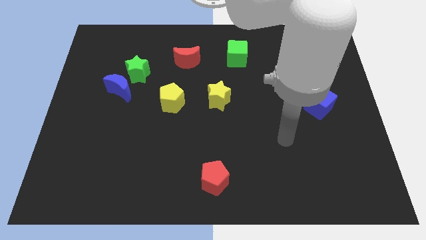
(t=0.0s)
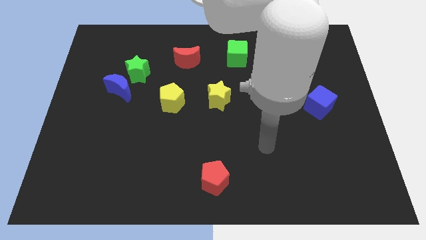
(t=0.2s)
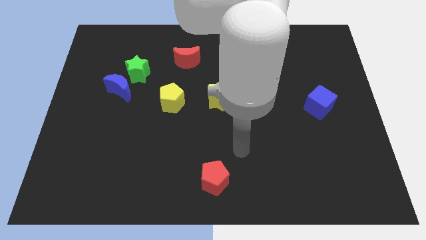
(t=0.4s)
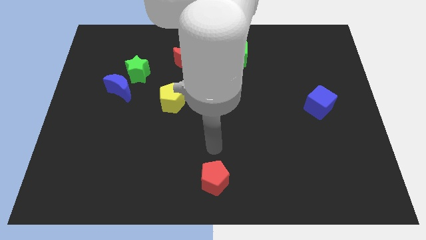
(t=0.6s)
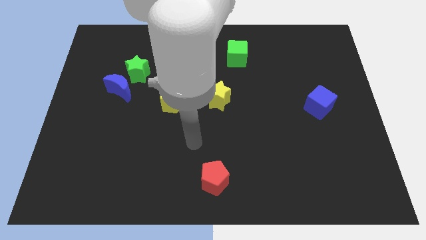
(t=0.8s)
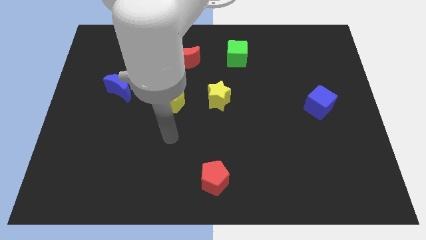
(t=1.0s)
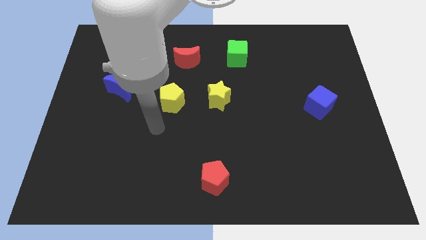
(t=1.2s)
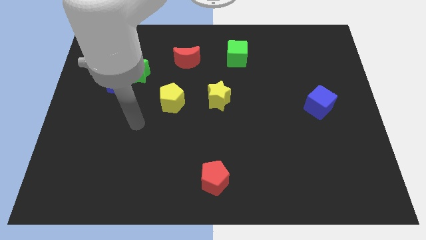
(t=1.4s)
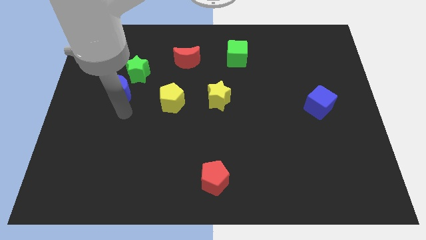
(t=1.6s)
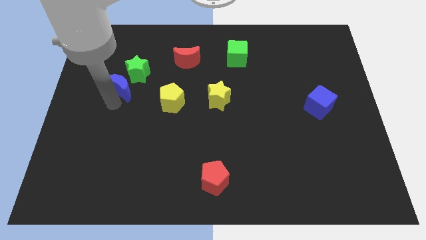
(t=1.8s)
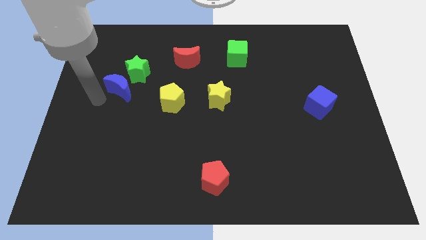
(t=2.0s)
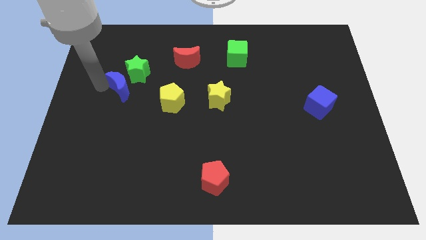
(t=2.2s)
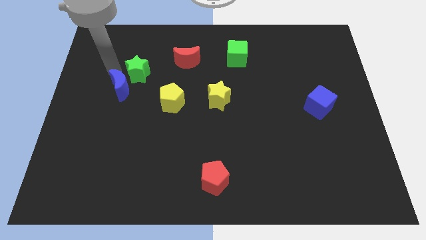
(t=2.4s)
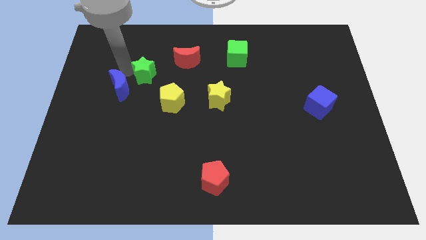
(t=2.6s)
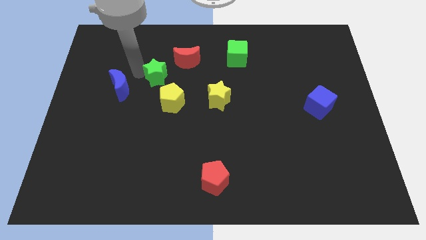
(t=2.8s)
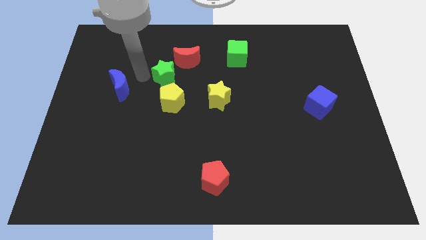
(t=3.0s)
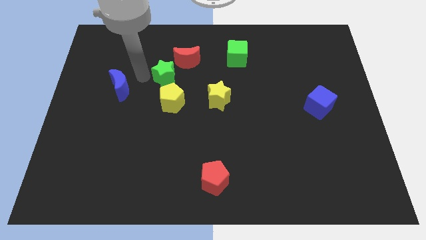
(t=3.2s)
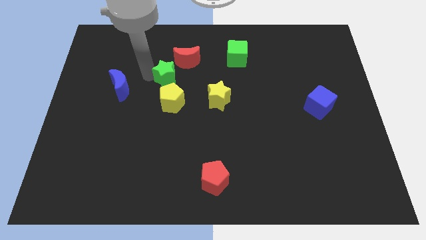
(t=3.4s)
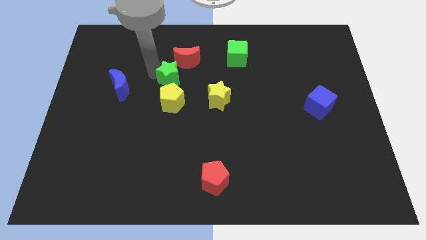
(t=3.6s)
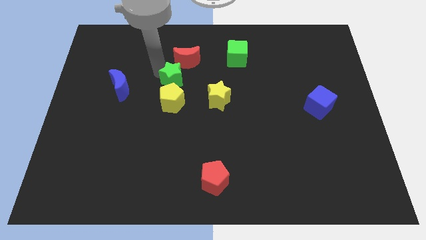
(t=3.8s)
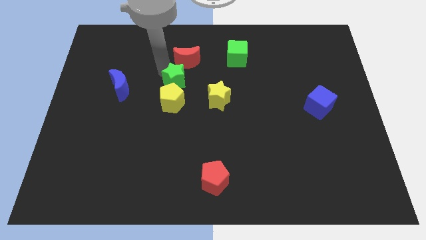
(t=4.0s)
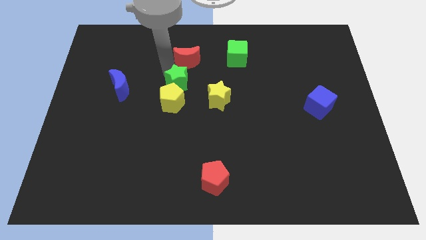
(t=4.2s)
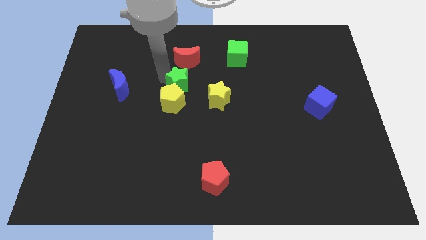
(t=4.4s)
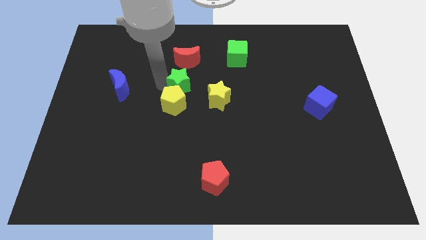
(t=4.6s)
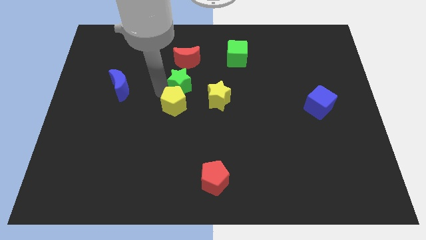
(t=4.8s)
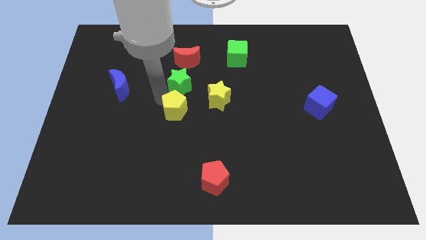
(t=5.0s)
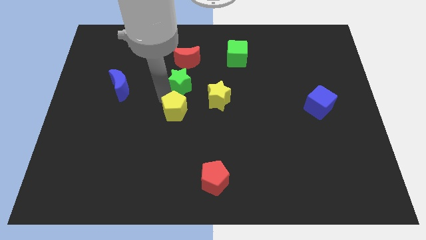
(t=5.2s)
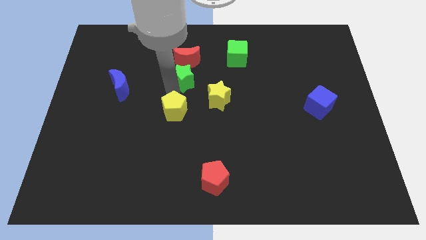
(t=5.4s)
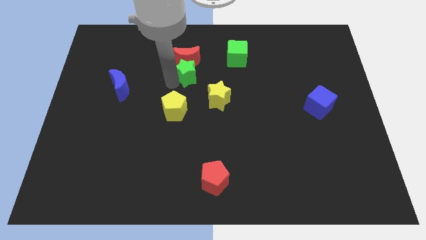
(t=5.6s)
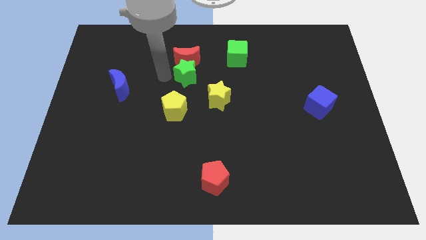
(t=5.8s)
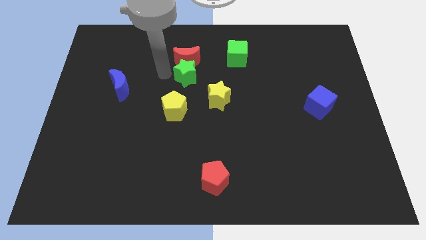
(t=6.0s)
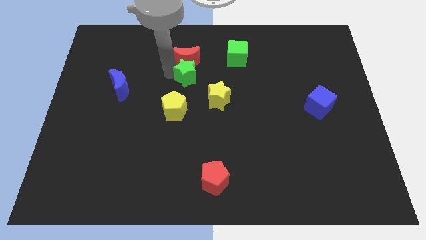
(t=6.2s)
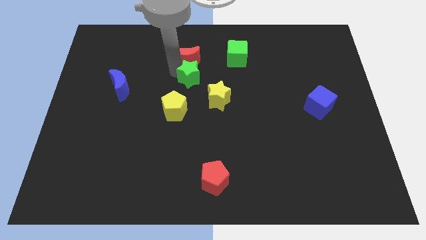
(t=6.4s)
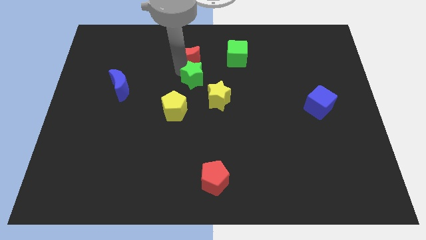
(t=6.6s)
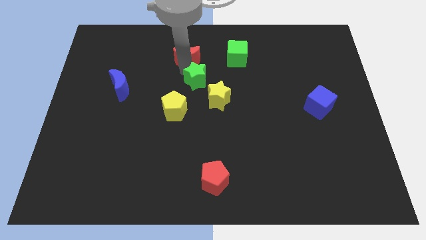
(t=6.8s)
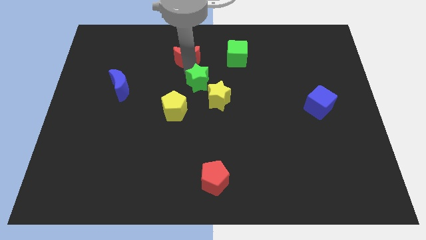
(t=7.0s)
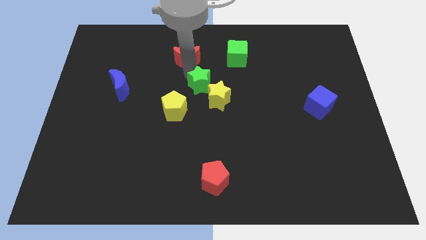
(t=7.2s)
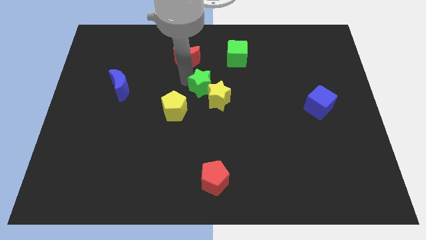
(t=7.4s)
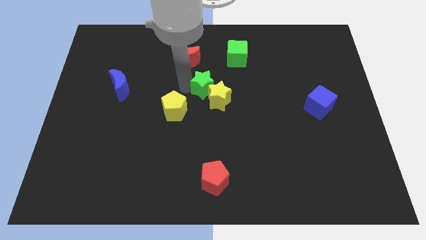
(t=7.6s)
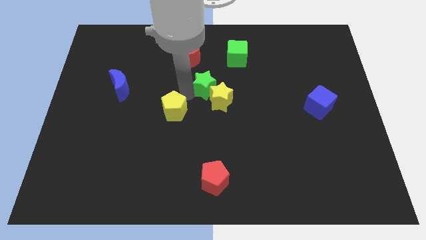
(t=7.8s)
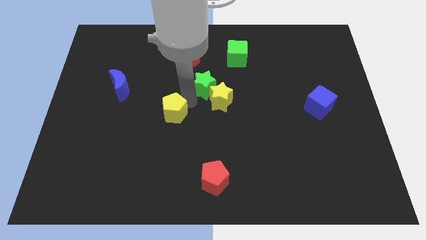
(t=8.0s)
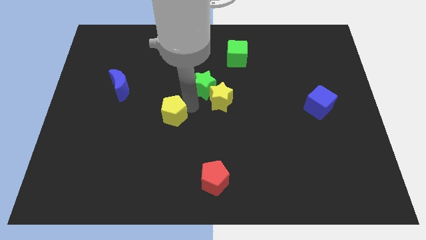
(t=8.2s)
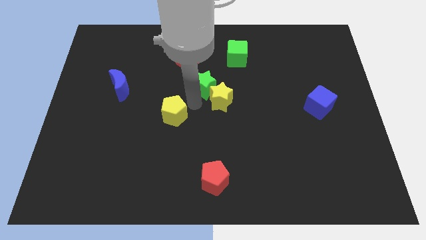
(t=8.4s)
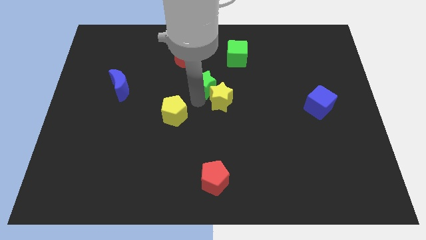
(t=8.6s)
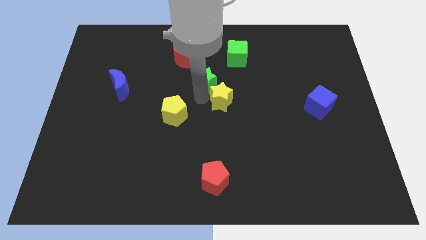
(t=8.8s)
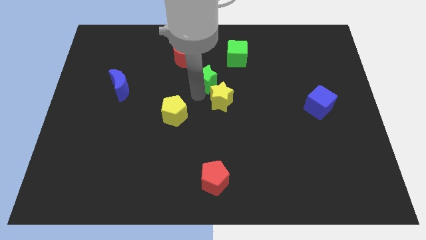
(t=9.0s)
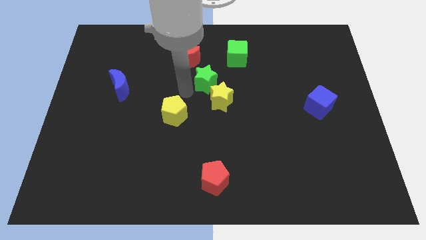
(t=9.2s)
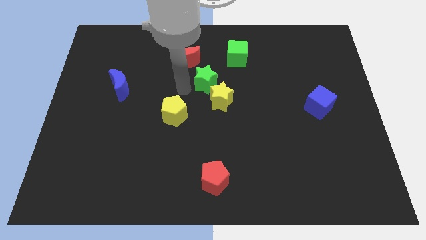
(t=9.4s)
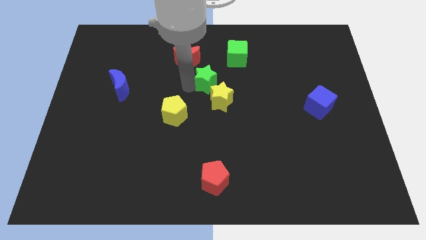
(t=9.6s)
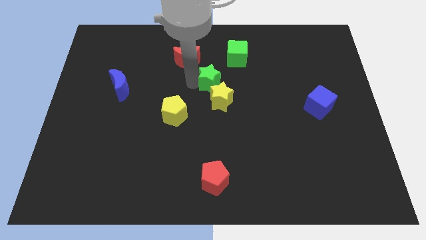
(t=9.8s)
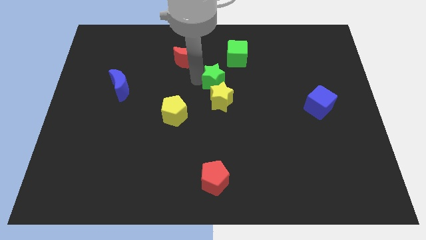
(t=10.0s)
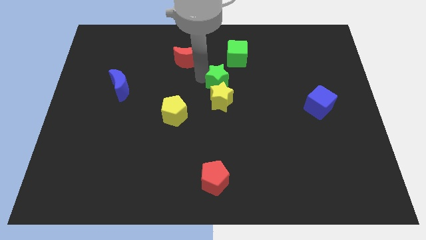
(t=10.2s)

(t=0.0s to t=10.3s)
slide the green star right

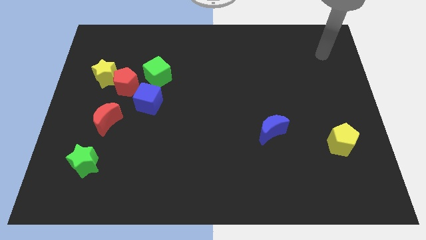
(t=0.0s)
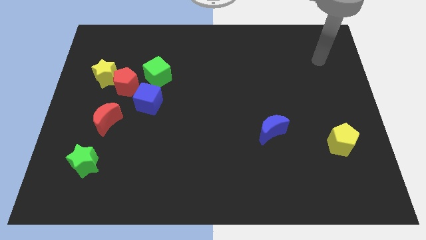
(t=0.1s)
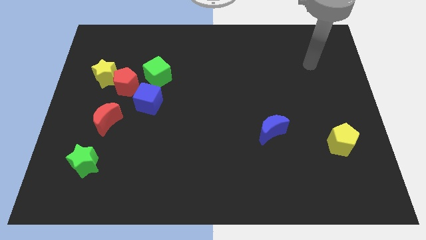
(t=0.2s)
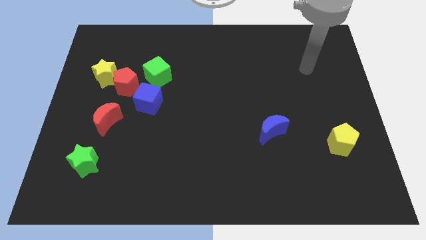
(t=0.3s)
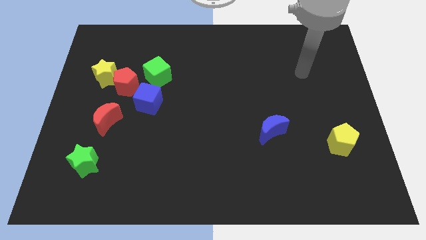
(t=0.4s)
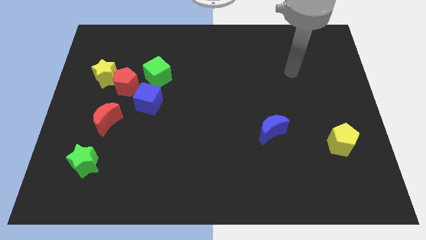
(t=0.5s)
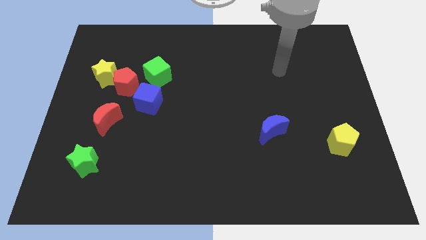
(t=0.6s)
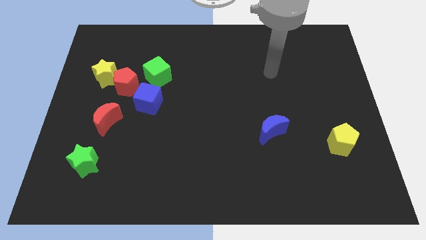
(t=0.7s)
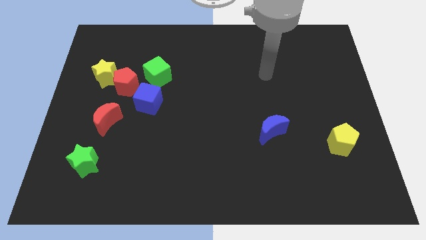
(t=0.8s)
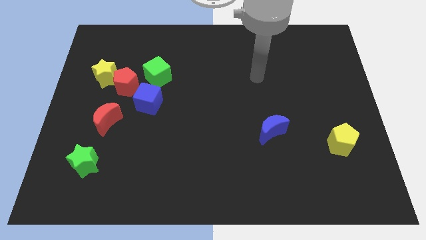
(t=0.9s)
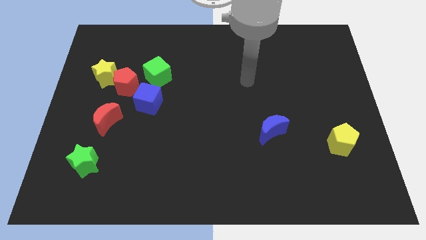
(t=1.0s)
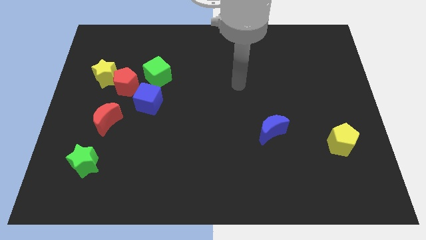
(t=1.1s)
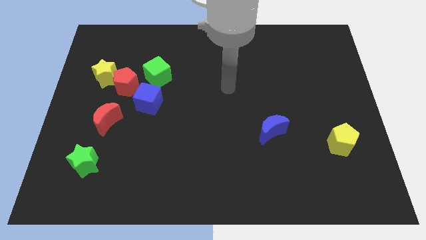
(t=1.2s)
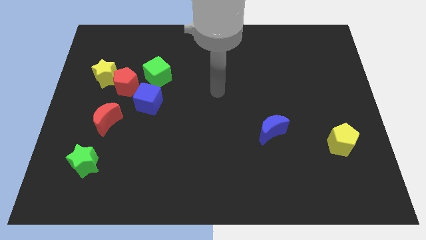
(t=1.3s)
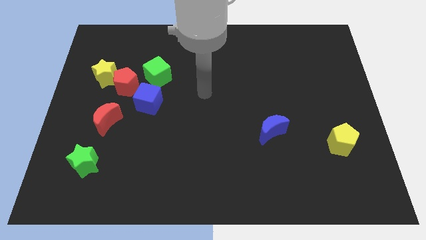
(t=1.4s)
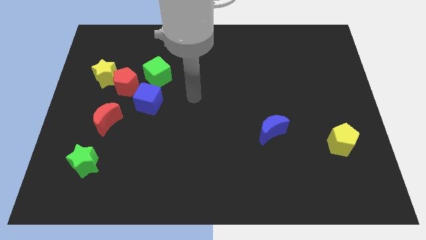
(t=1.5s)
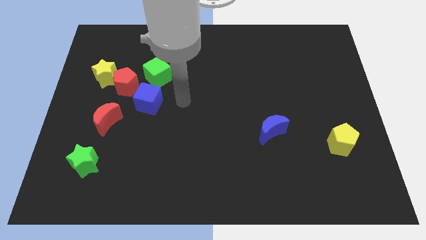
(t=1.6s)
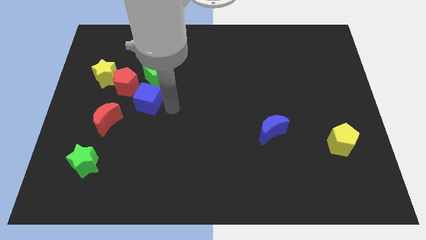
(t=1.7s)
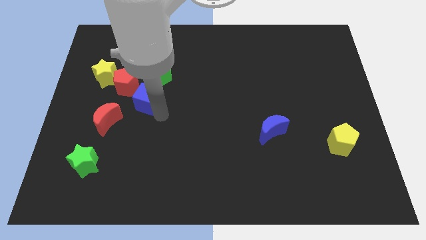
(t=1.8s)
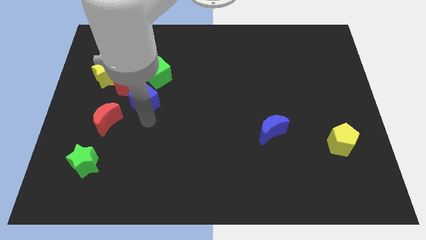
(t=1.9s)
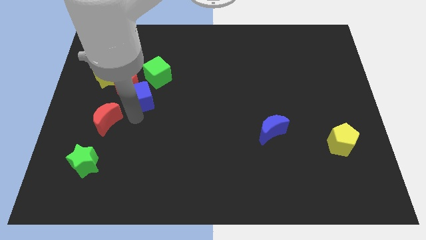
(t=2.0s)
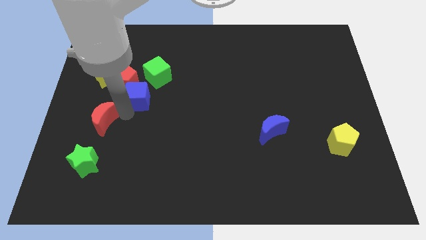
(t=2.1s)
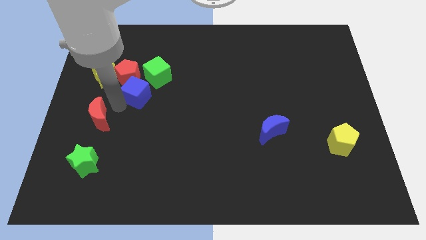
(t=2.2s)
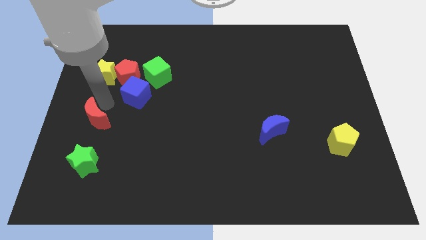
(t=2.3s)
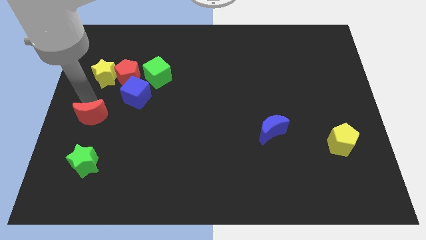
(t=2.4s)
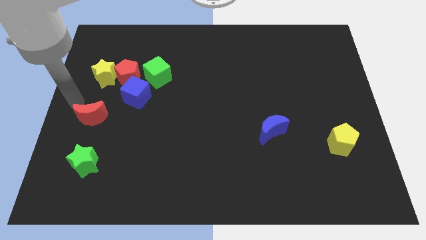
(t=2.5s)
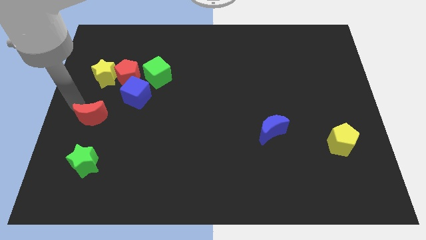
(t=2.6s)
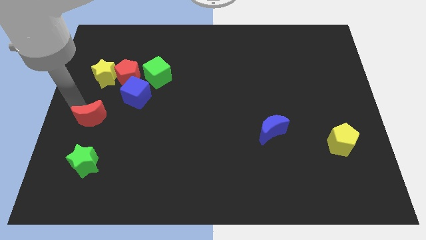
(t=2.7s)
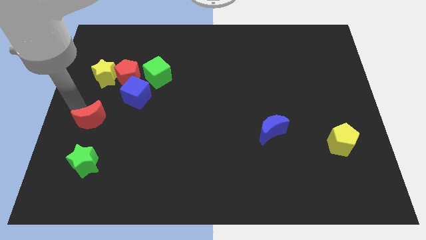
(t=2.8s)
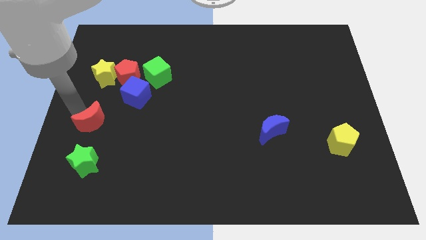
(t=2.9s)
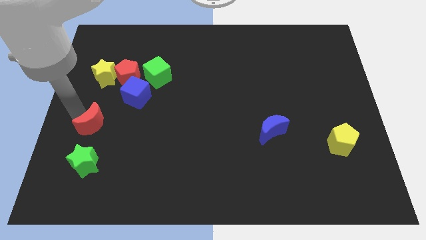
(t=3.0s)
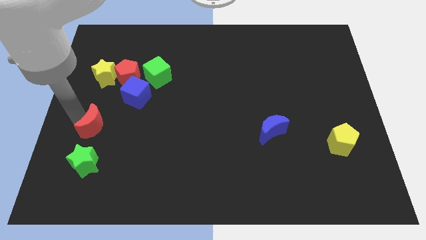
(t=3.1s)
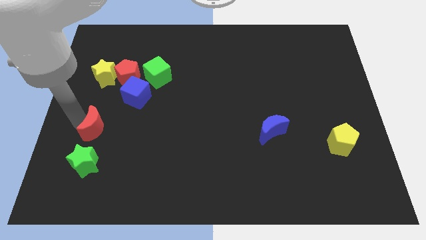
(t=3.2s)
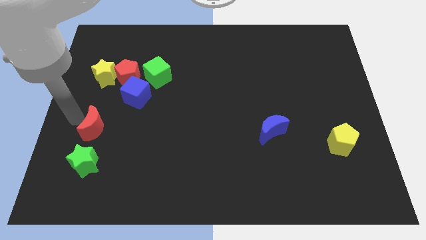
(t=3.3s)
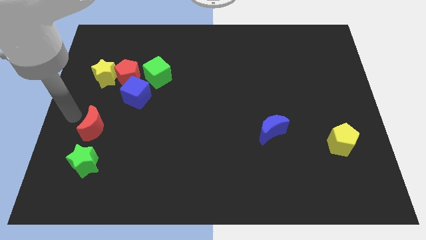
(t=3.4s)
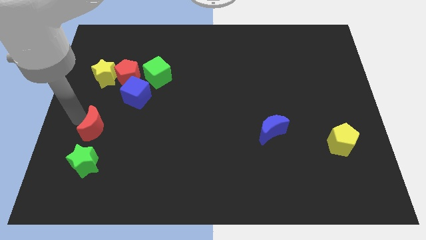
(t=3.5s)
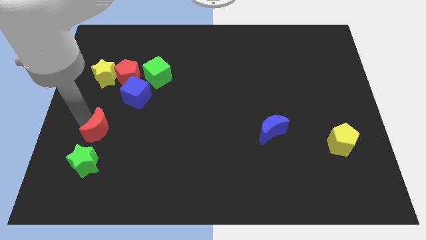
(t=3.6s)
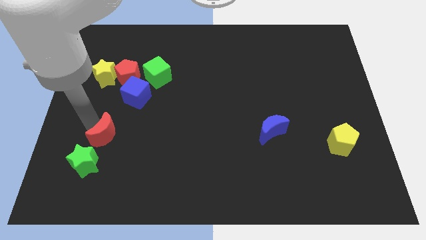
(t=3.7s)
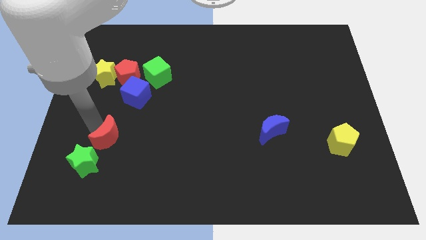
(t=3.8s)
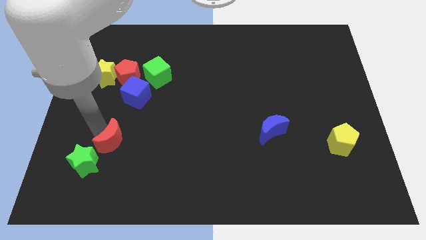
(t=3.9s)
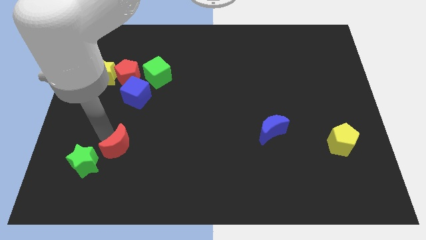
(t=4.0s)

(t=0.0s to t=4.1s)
slightly slide the red moon down and right
